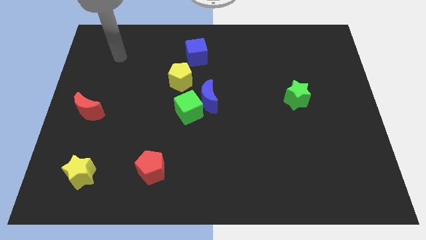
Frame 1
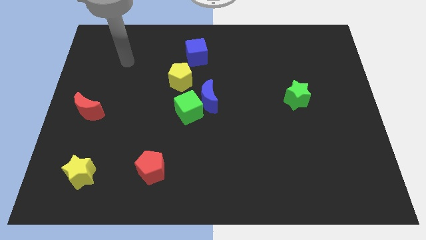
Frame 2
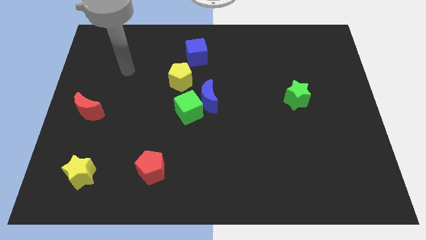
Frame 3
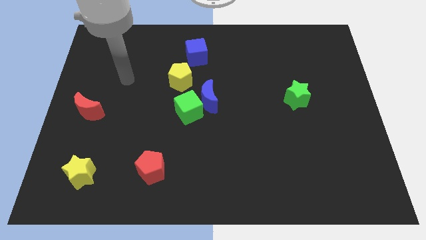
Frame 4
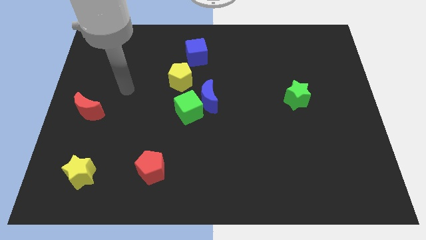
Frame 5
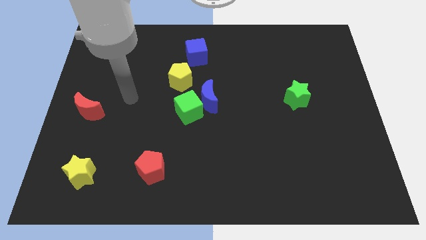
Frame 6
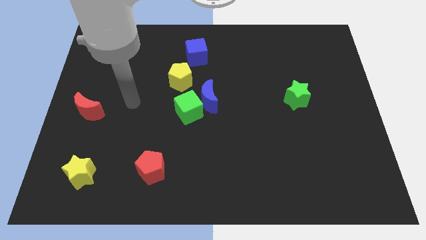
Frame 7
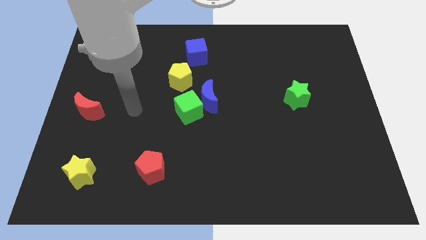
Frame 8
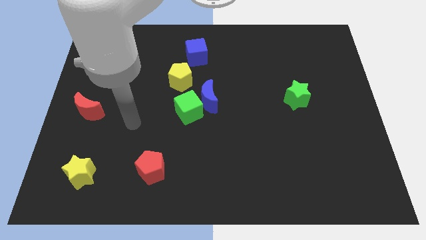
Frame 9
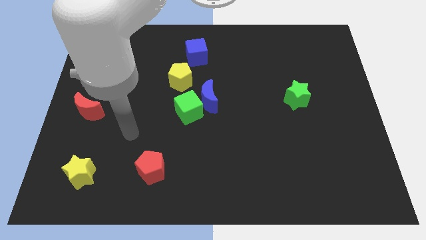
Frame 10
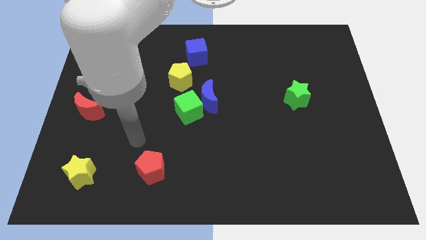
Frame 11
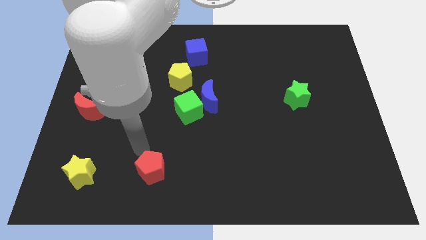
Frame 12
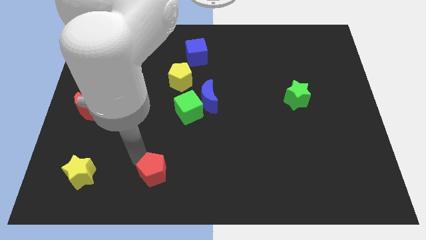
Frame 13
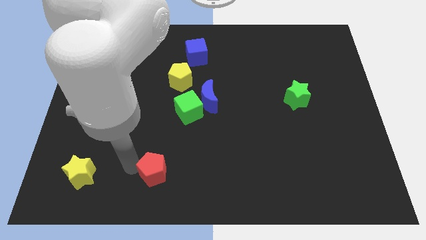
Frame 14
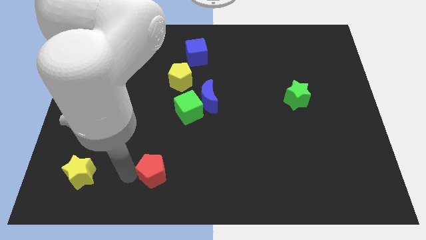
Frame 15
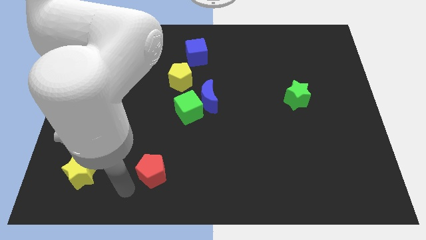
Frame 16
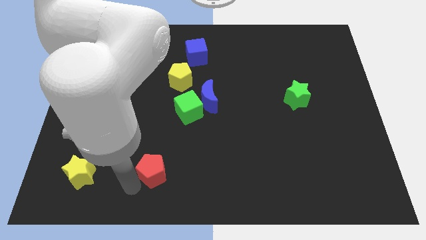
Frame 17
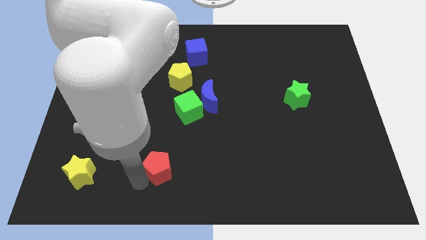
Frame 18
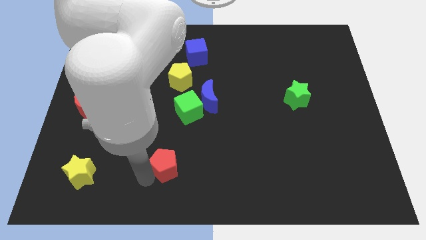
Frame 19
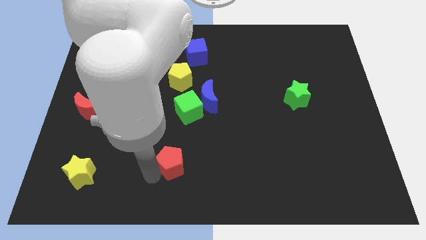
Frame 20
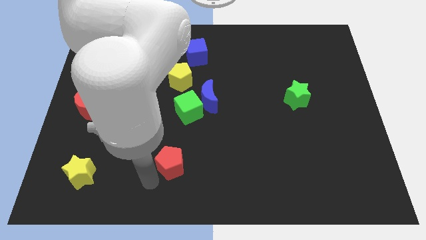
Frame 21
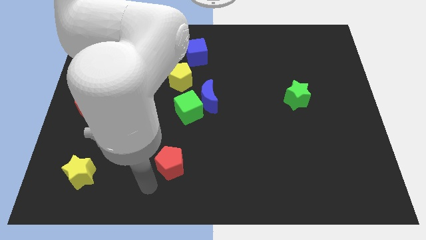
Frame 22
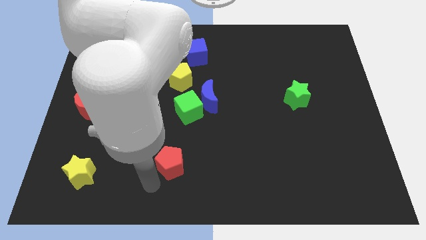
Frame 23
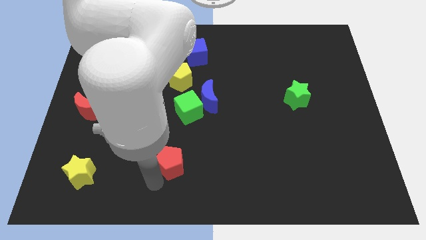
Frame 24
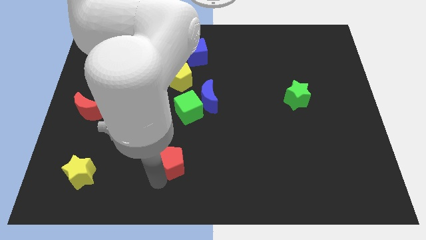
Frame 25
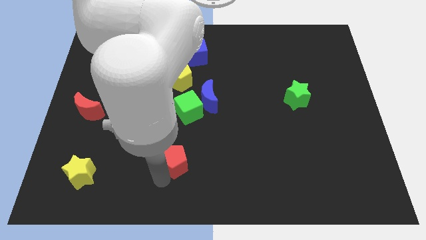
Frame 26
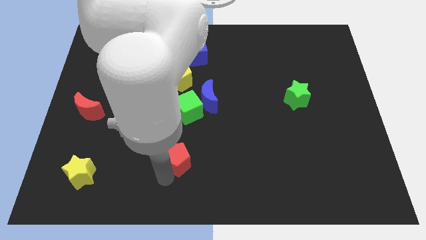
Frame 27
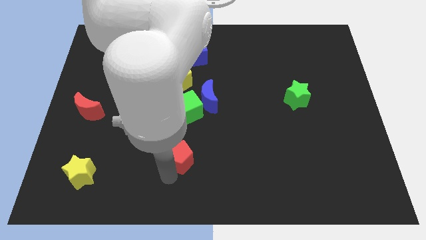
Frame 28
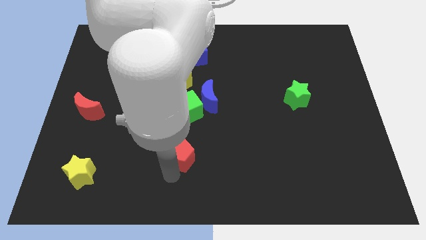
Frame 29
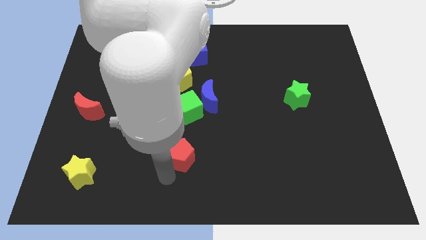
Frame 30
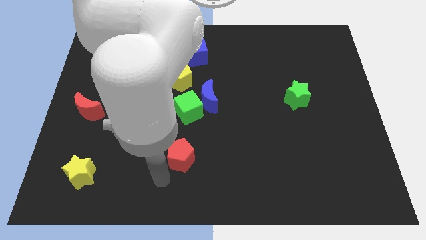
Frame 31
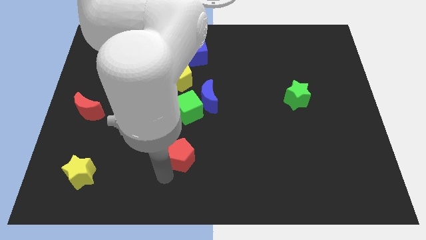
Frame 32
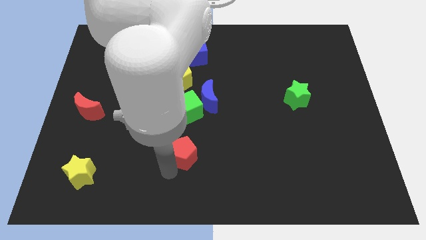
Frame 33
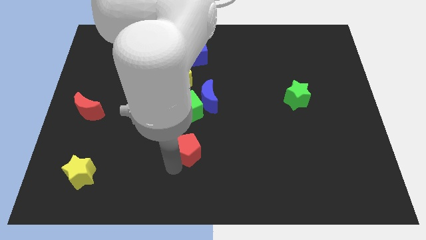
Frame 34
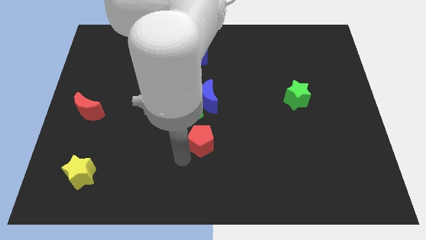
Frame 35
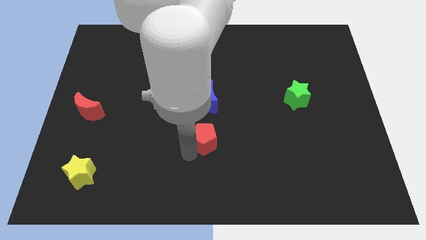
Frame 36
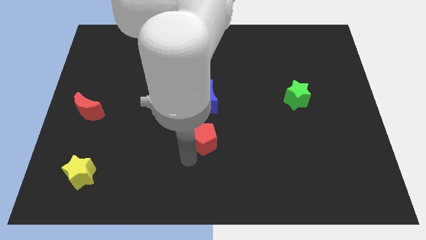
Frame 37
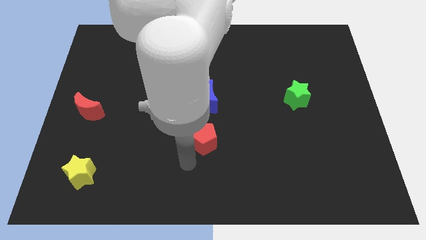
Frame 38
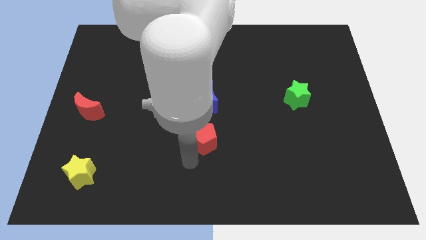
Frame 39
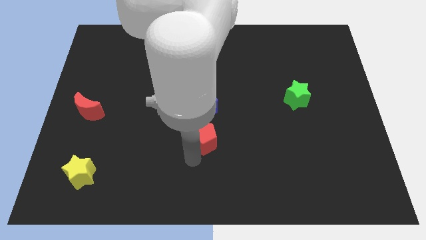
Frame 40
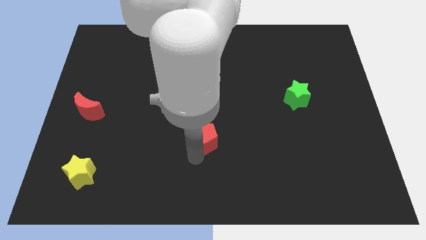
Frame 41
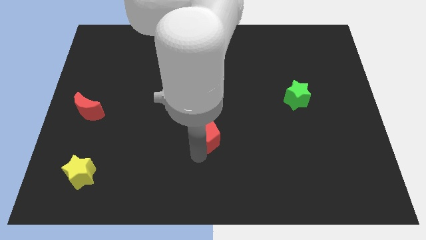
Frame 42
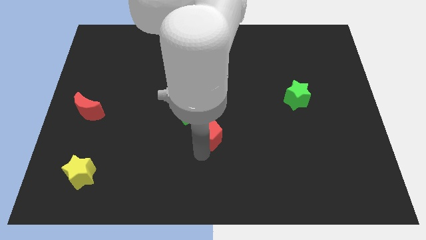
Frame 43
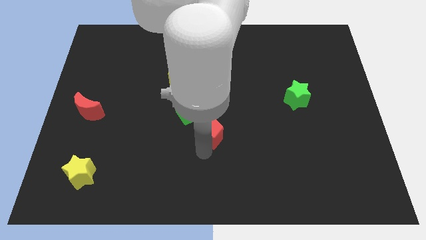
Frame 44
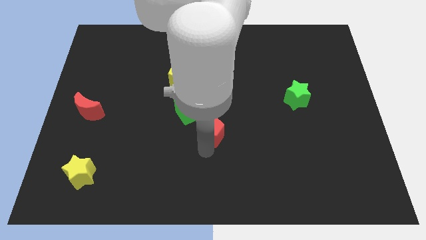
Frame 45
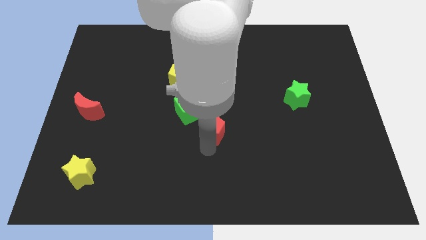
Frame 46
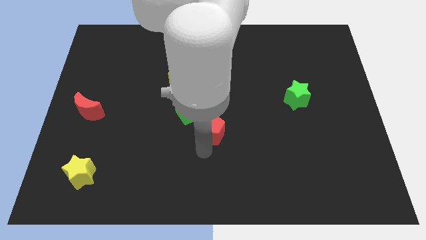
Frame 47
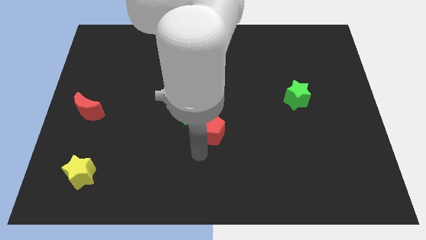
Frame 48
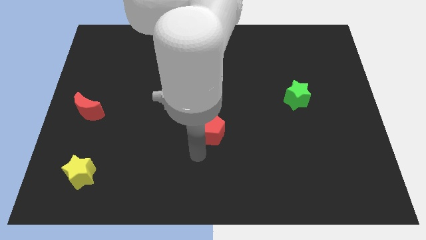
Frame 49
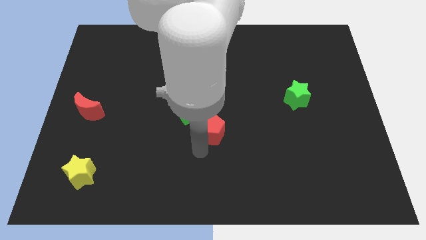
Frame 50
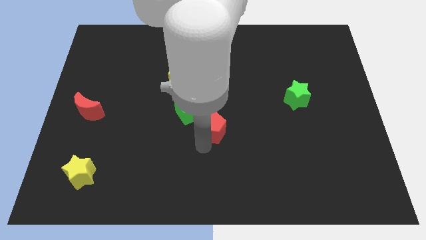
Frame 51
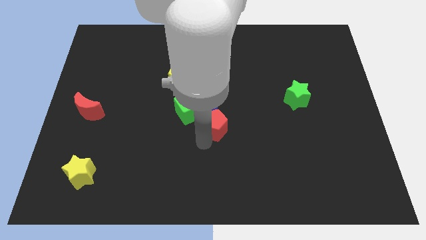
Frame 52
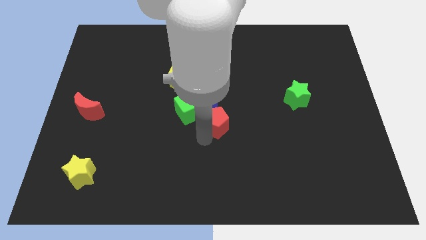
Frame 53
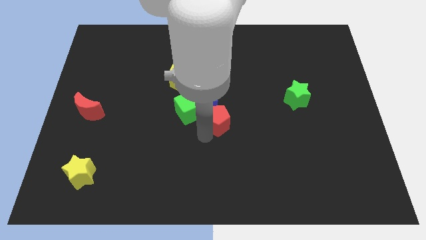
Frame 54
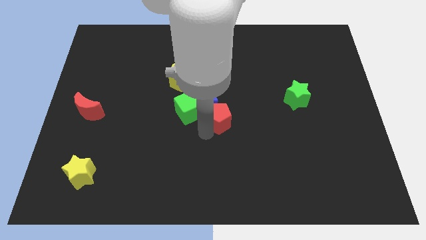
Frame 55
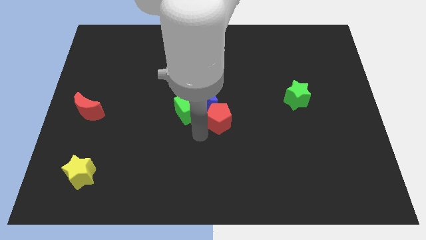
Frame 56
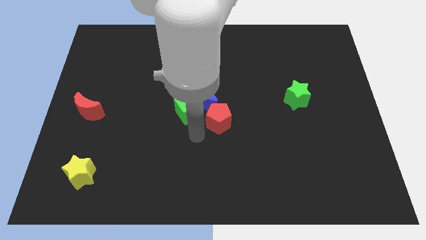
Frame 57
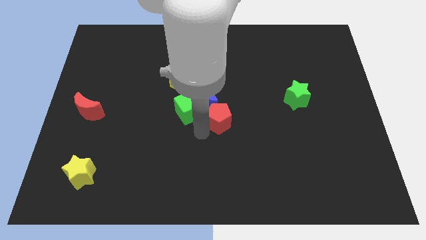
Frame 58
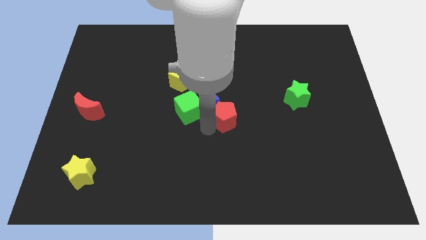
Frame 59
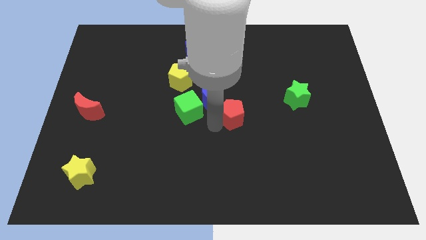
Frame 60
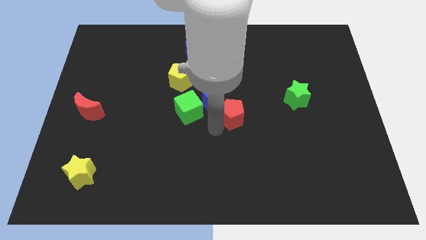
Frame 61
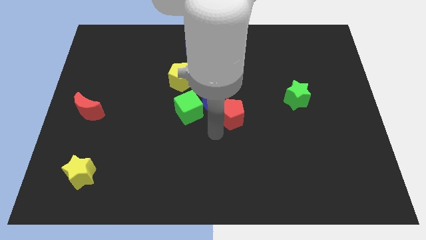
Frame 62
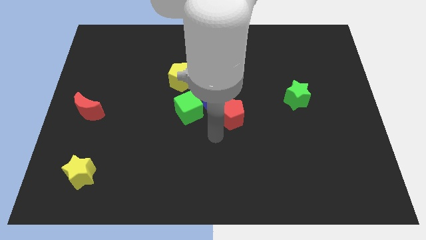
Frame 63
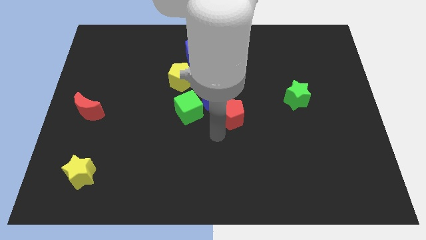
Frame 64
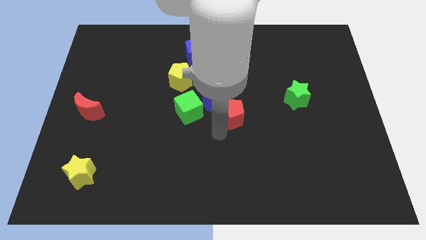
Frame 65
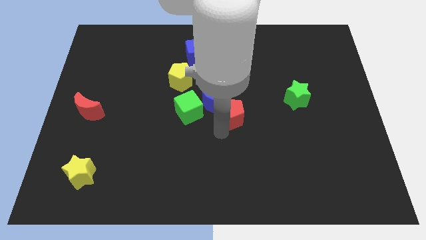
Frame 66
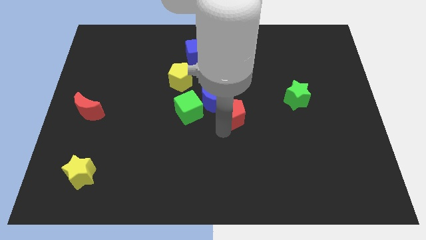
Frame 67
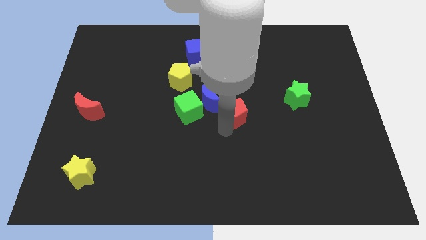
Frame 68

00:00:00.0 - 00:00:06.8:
slide the red pentagon right of the blue moon
